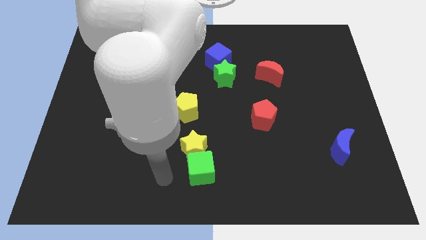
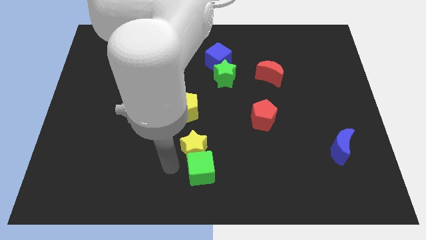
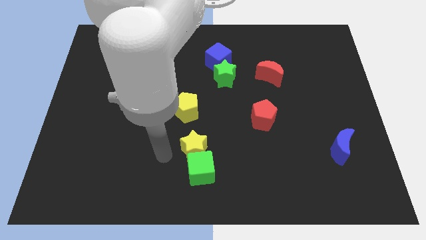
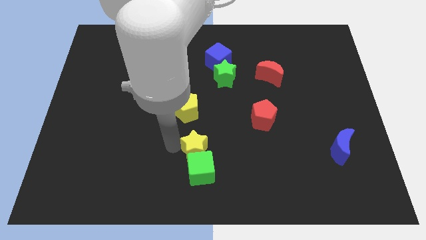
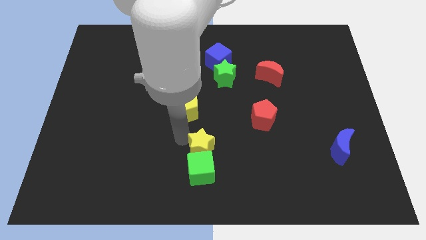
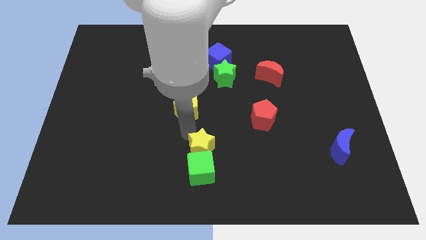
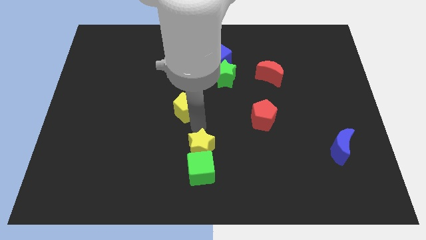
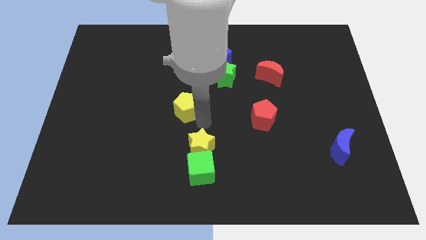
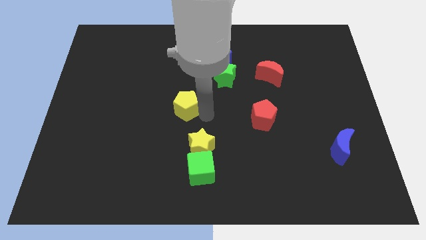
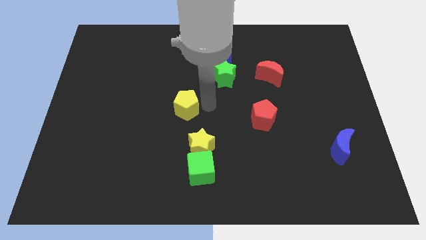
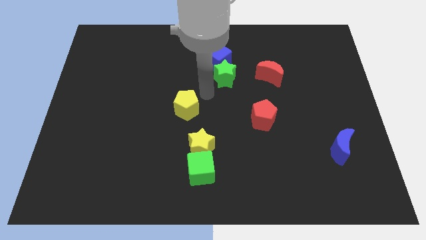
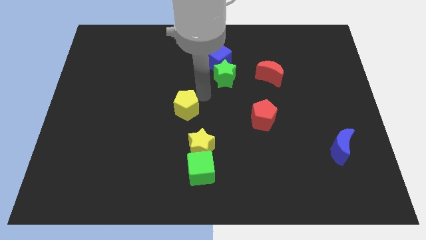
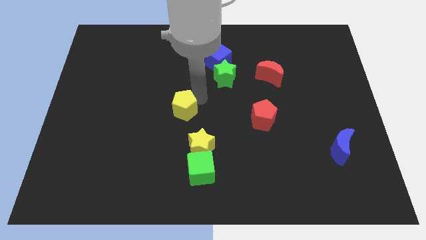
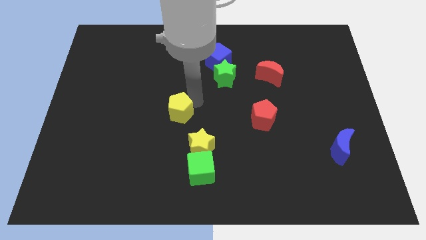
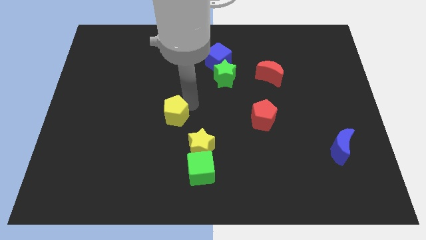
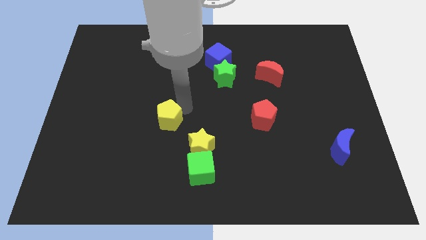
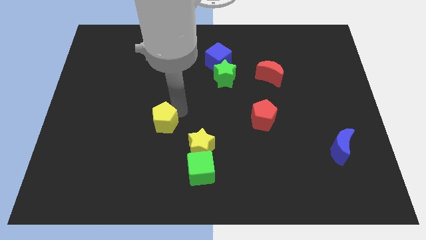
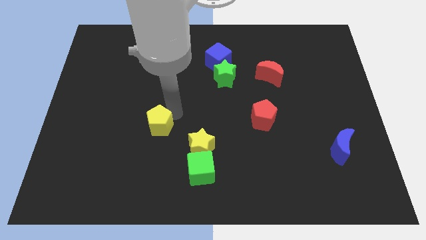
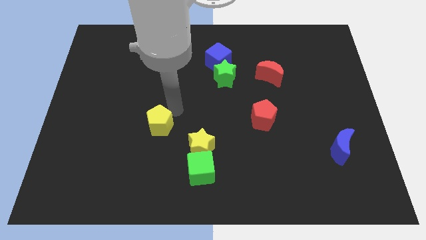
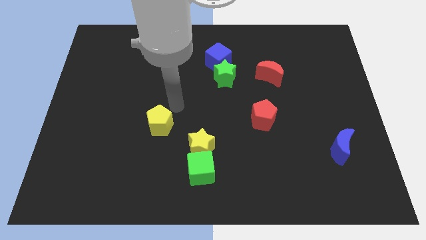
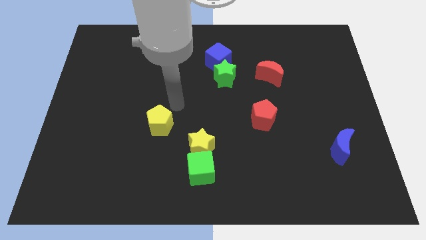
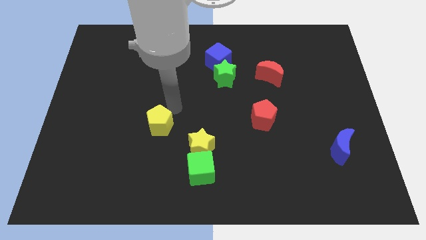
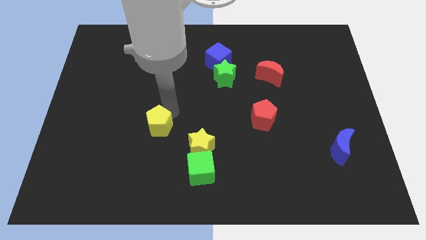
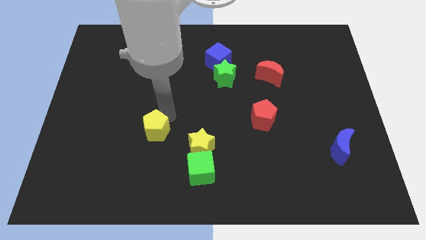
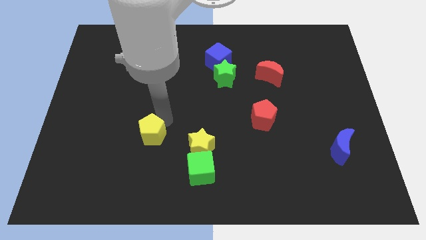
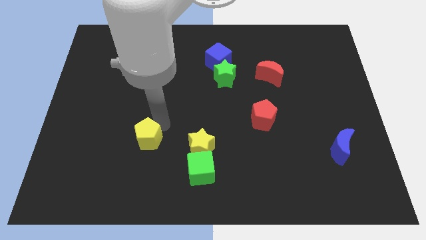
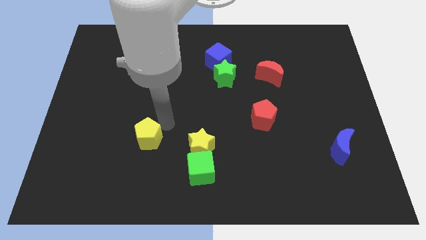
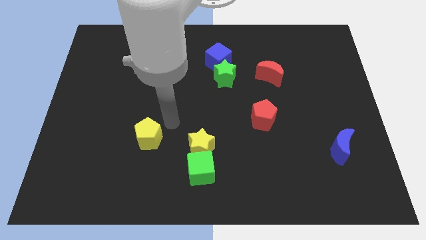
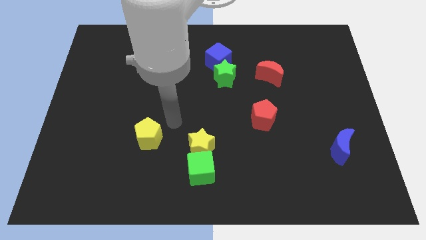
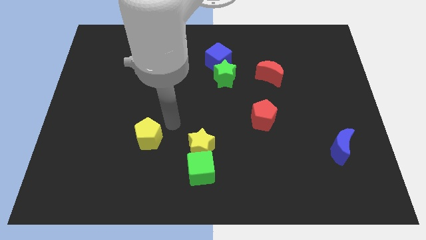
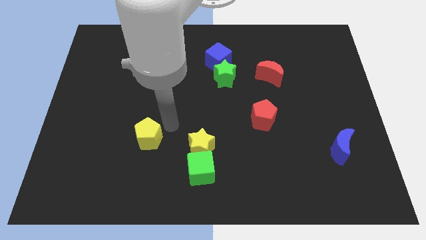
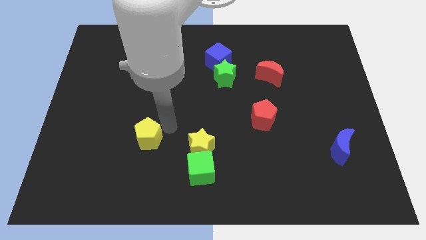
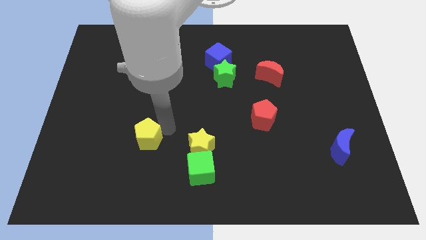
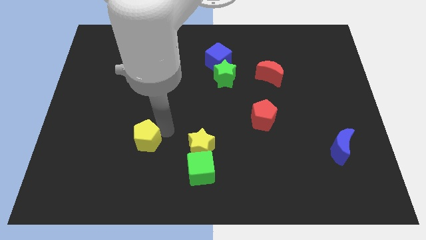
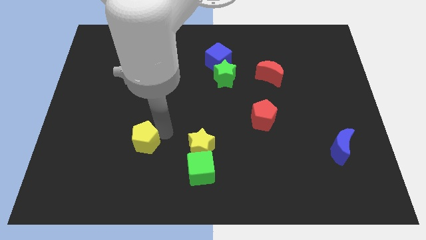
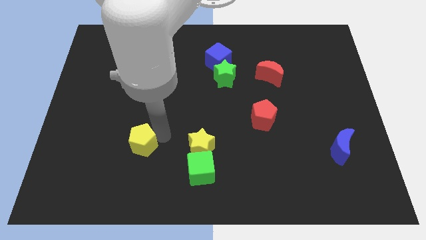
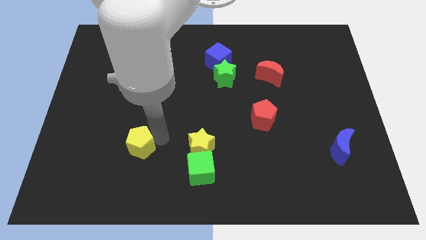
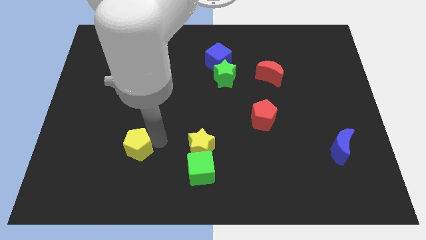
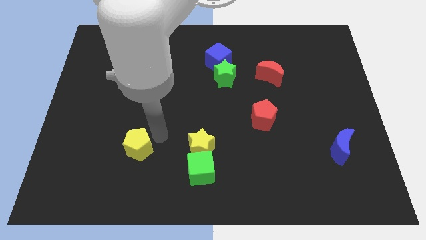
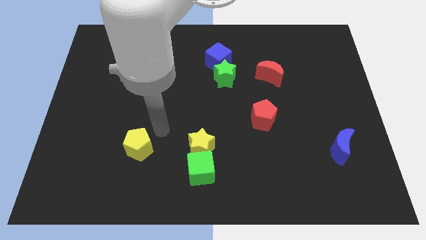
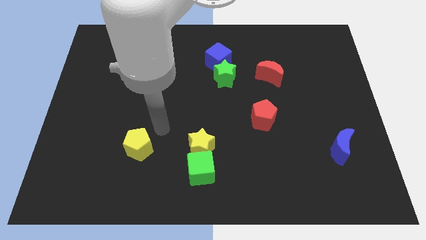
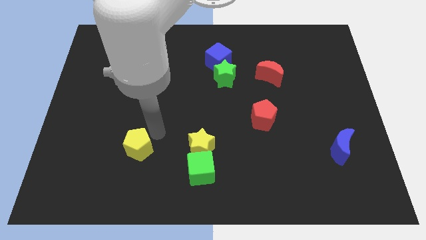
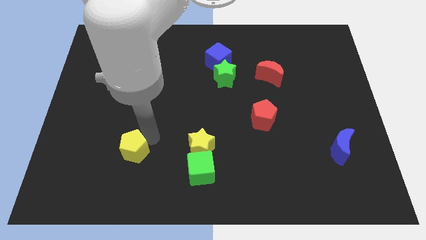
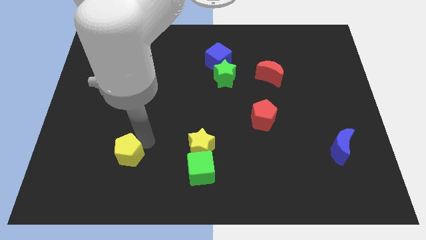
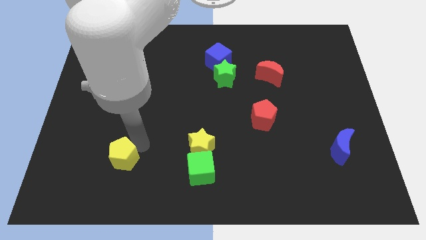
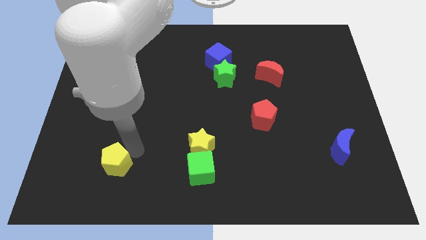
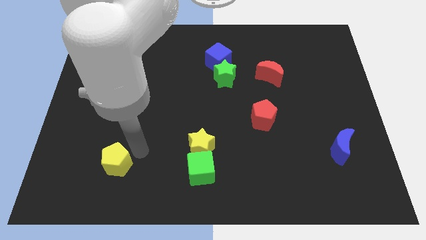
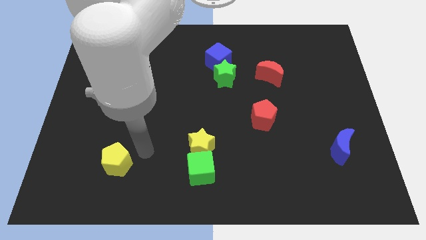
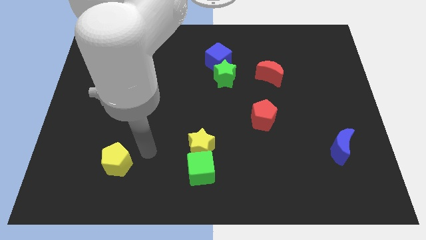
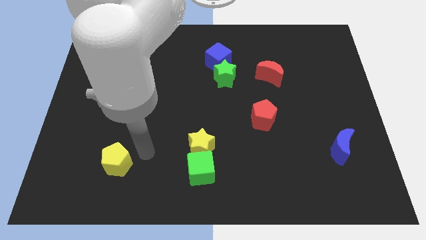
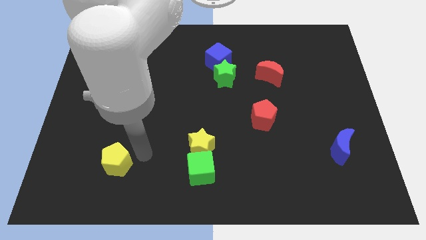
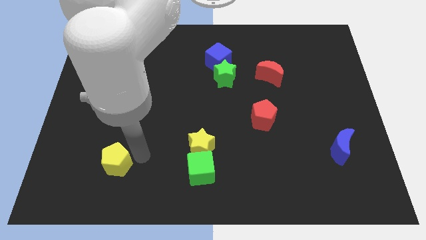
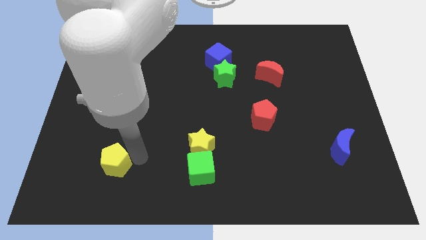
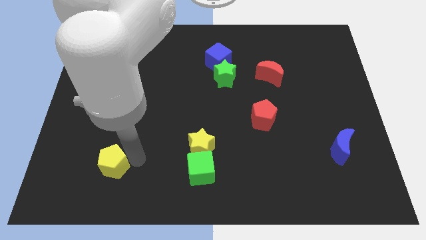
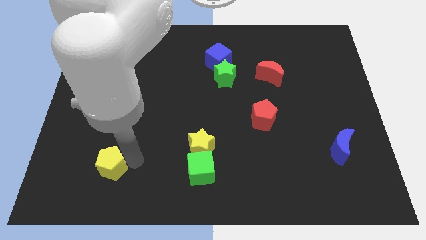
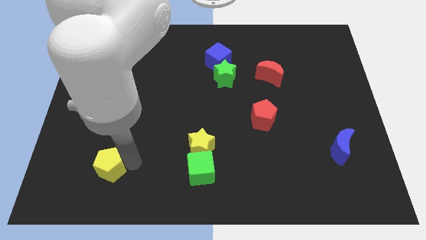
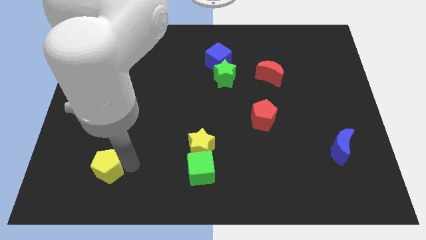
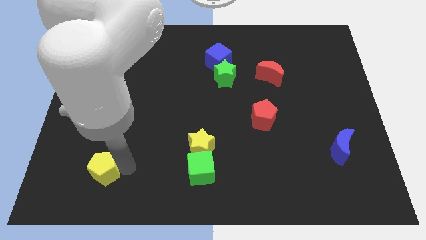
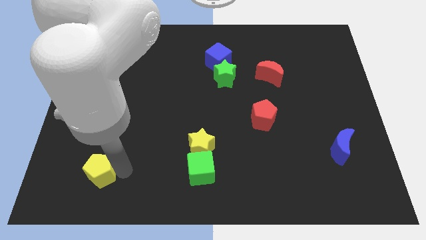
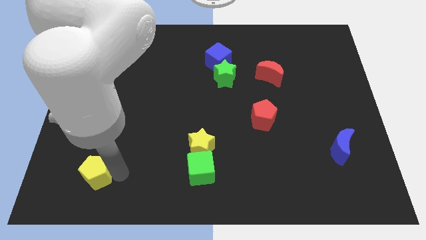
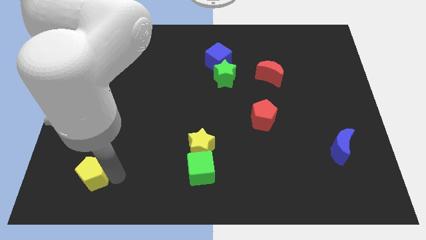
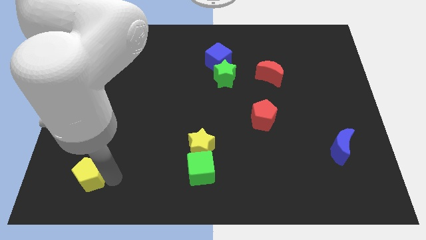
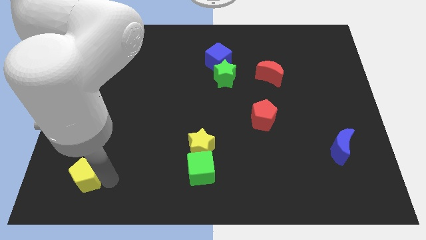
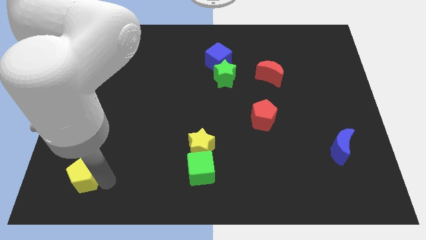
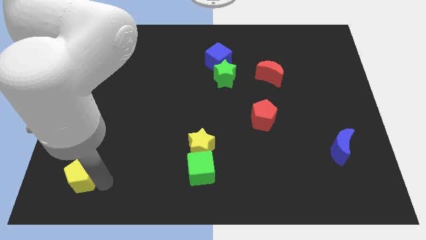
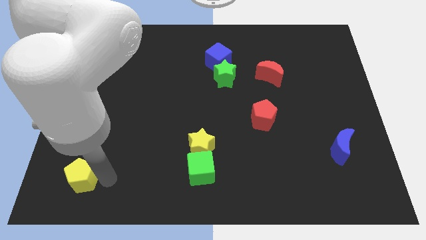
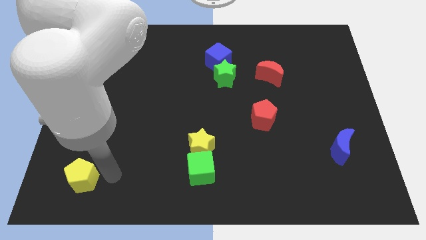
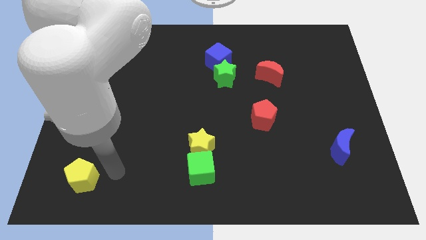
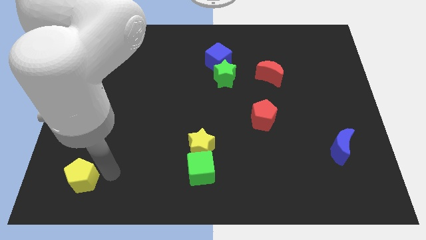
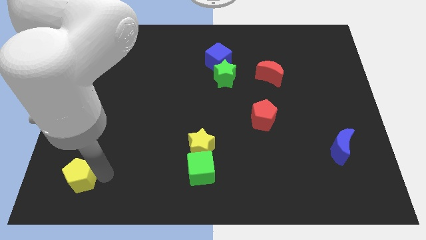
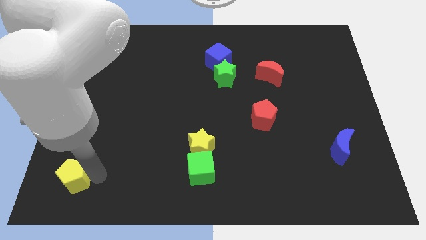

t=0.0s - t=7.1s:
move the yellow pentagon to the lower left corner
